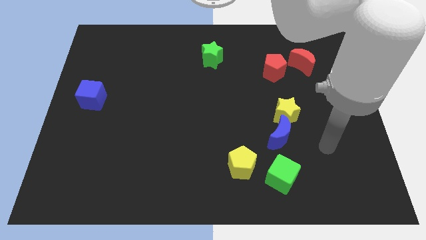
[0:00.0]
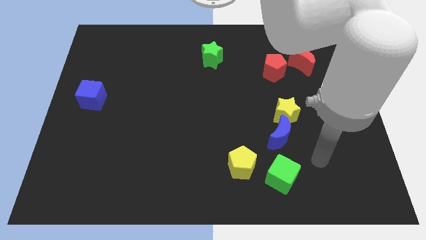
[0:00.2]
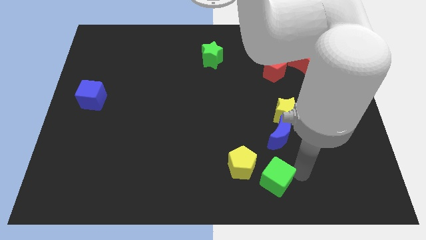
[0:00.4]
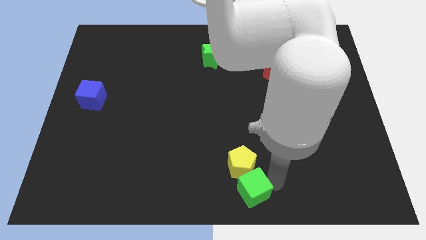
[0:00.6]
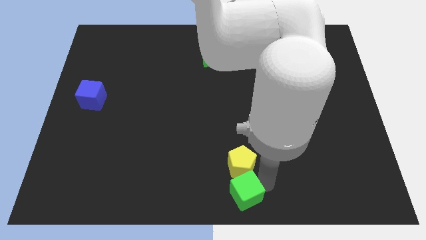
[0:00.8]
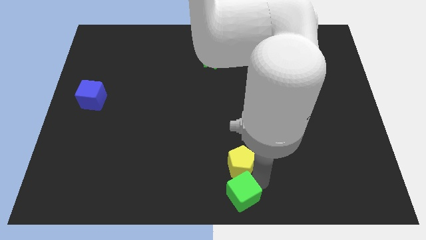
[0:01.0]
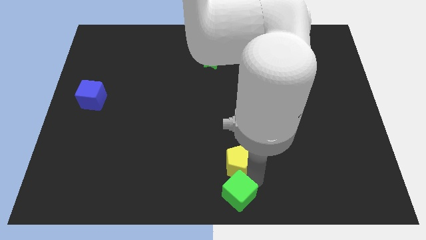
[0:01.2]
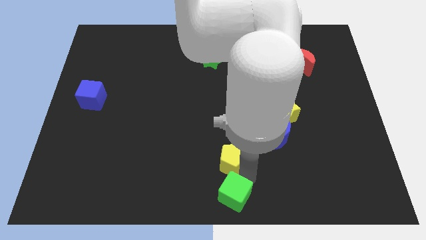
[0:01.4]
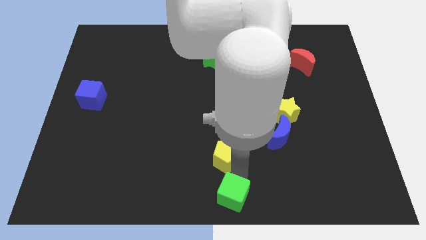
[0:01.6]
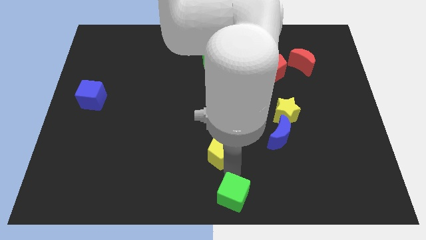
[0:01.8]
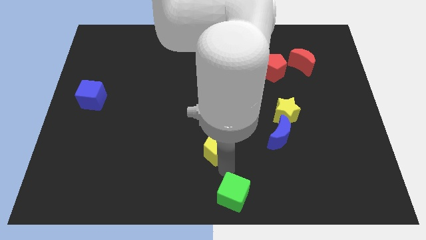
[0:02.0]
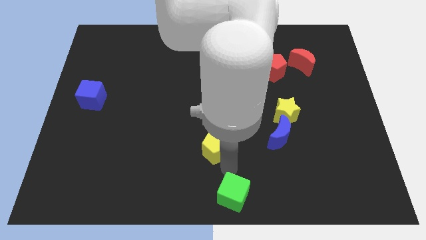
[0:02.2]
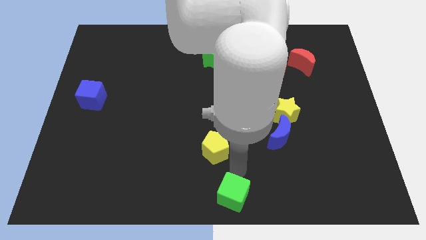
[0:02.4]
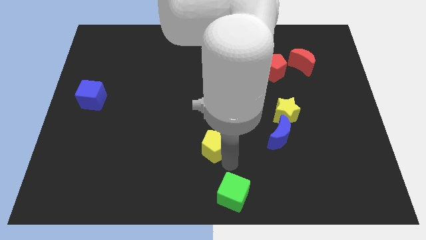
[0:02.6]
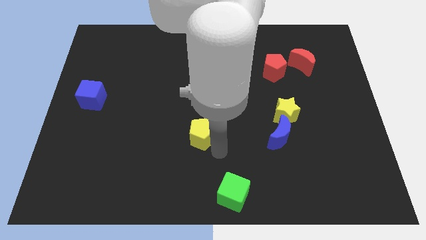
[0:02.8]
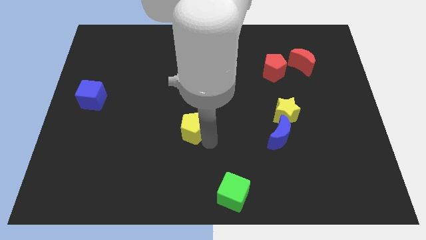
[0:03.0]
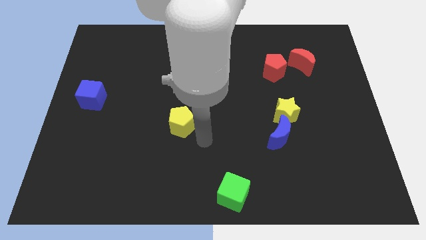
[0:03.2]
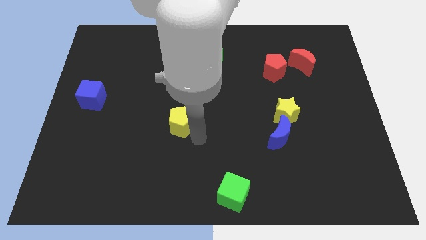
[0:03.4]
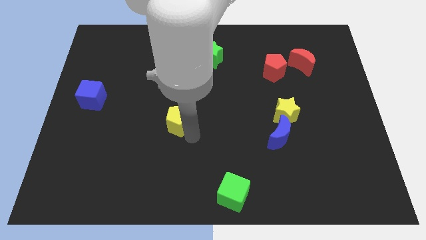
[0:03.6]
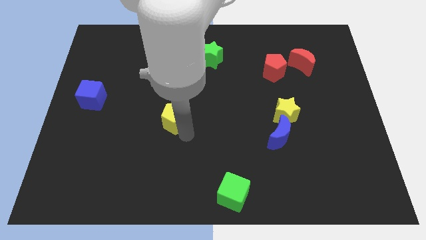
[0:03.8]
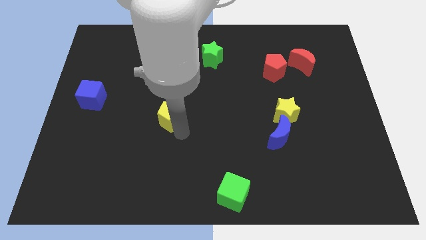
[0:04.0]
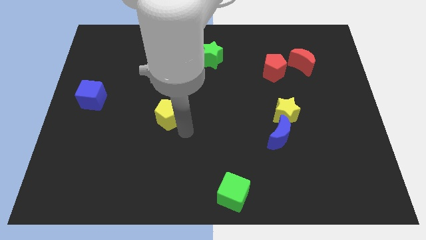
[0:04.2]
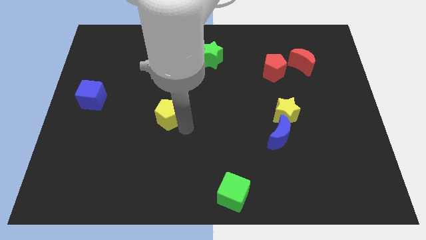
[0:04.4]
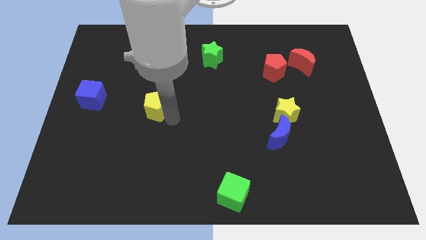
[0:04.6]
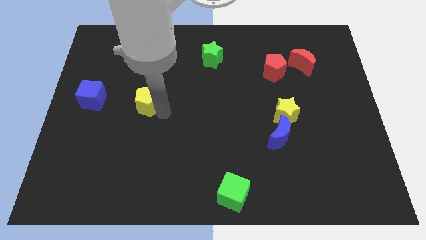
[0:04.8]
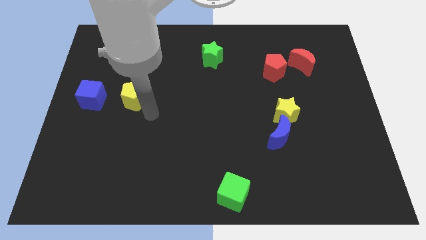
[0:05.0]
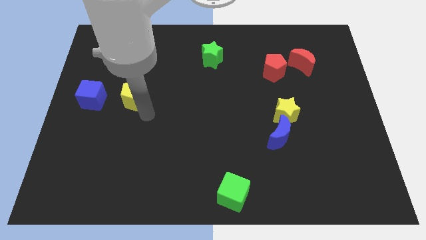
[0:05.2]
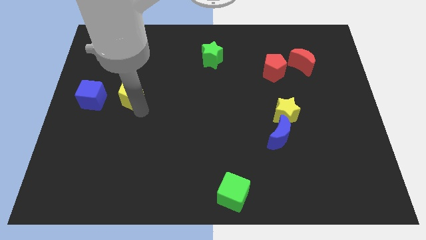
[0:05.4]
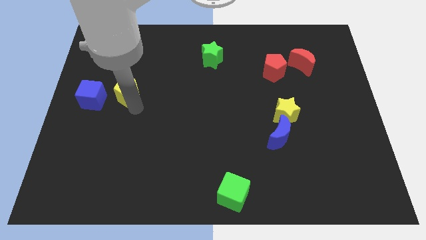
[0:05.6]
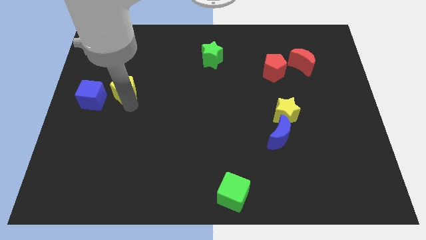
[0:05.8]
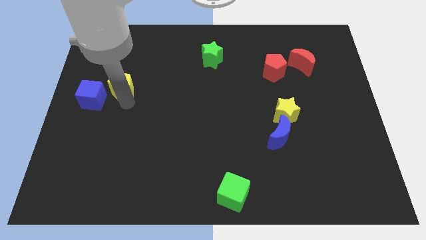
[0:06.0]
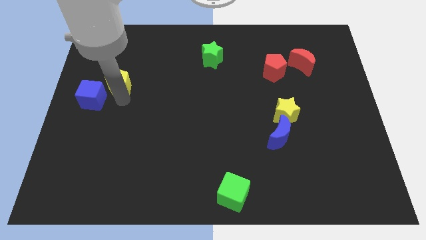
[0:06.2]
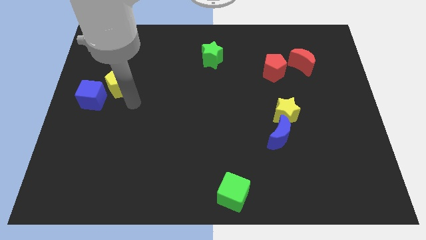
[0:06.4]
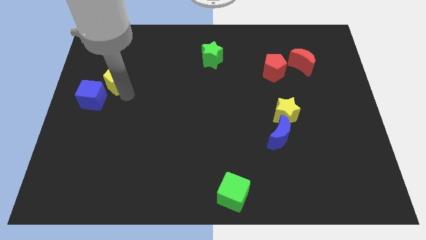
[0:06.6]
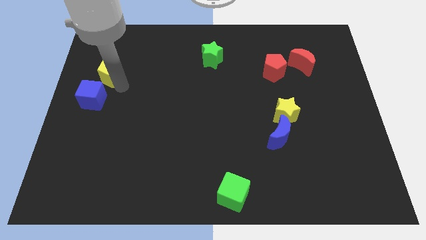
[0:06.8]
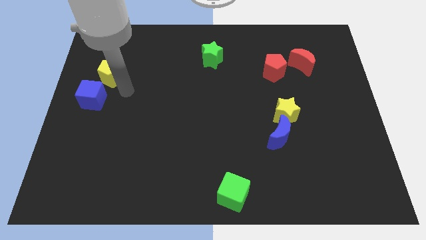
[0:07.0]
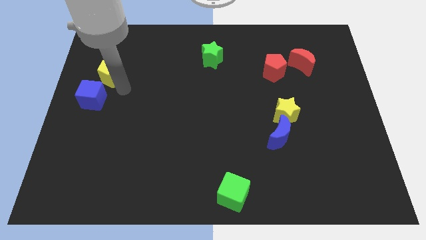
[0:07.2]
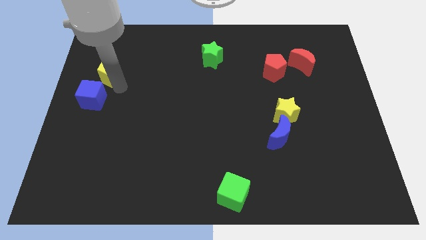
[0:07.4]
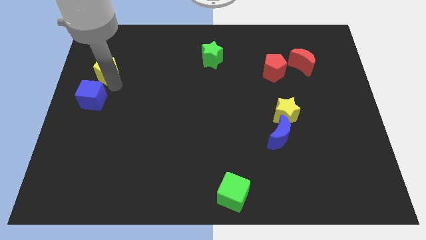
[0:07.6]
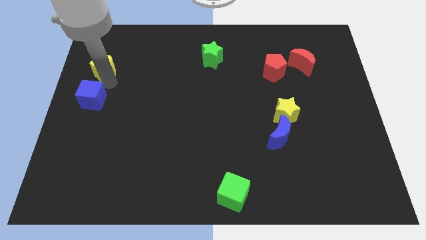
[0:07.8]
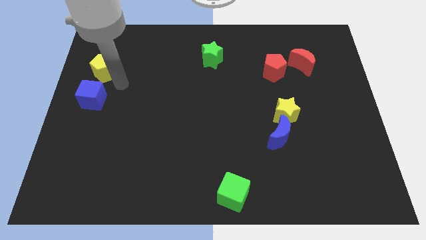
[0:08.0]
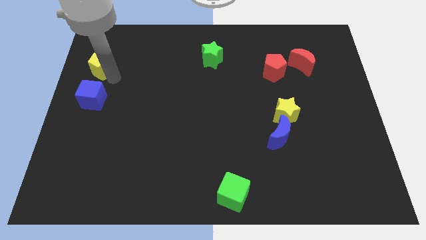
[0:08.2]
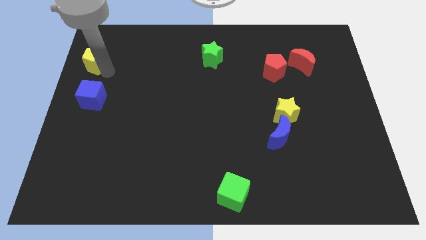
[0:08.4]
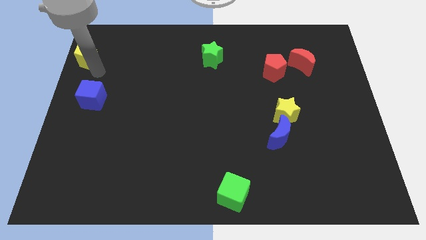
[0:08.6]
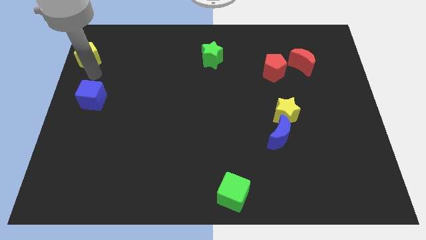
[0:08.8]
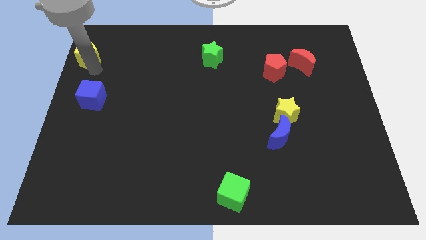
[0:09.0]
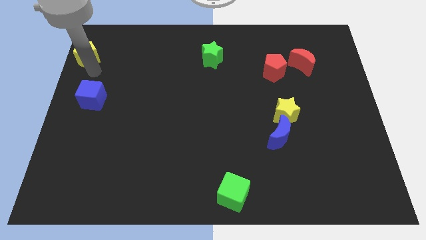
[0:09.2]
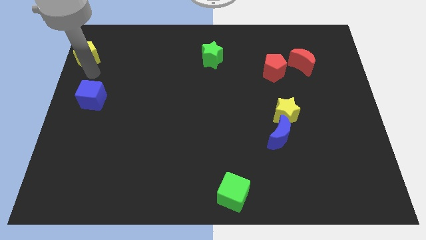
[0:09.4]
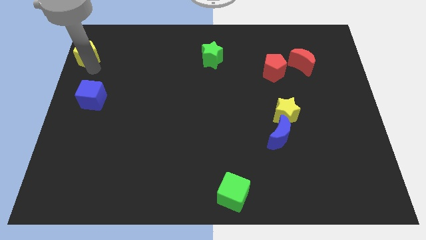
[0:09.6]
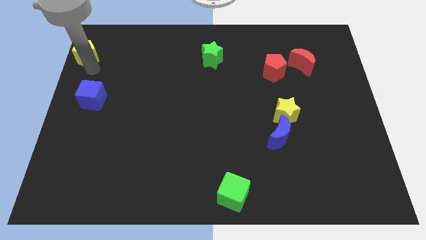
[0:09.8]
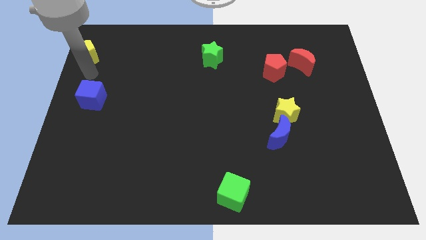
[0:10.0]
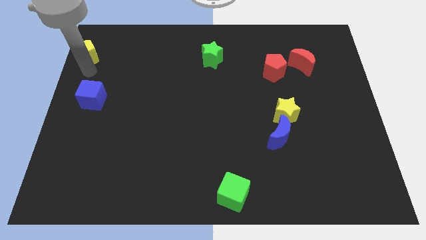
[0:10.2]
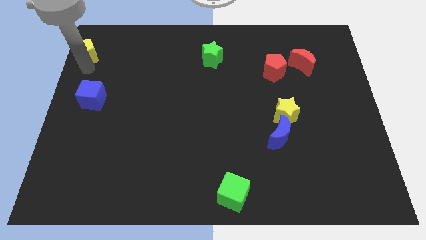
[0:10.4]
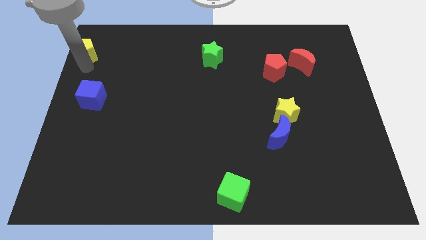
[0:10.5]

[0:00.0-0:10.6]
push the yellow pentagon to the top left corner

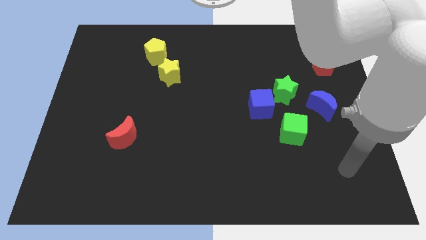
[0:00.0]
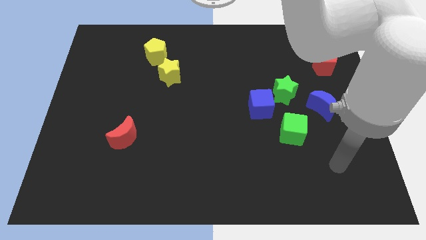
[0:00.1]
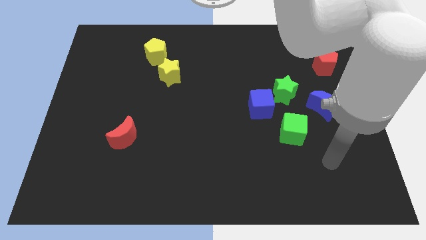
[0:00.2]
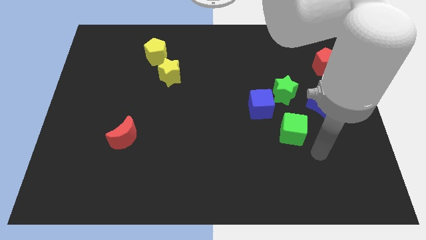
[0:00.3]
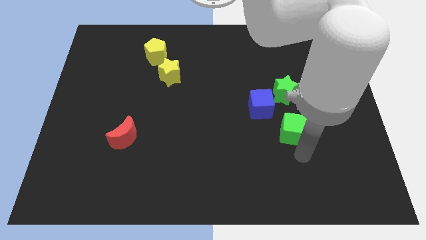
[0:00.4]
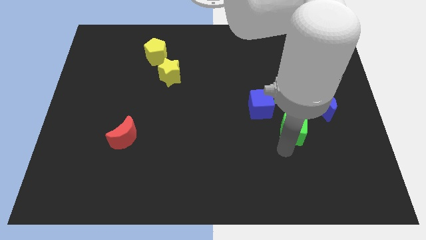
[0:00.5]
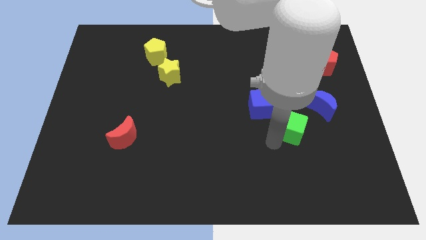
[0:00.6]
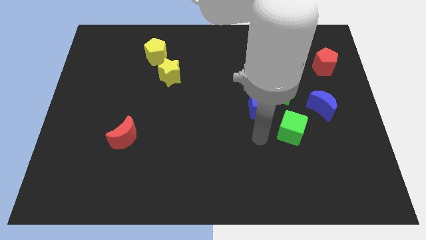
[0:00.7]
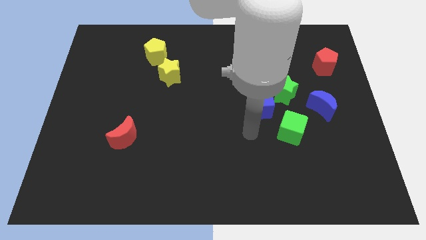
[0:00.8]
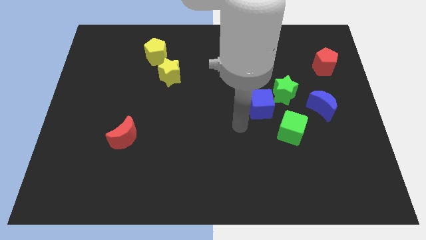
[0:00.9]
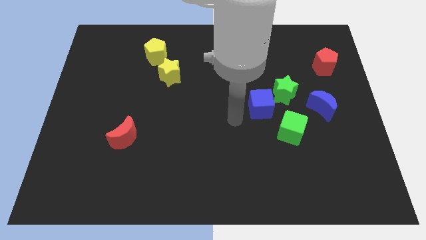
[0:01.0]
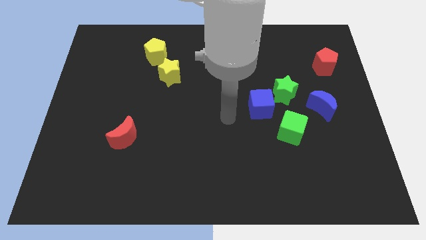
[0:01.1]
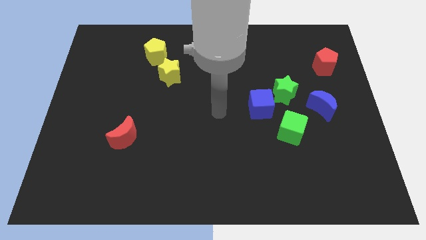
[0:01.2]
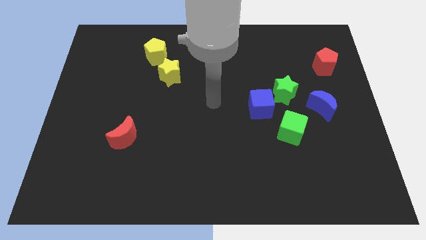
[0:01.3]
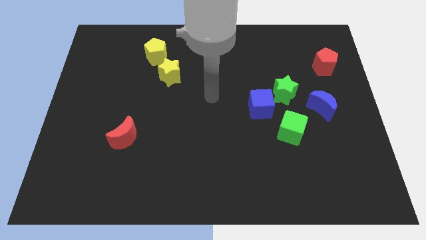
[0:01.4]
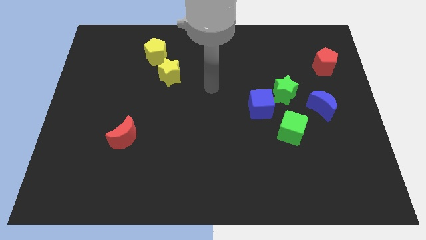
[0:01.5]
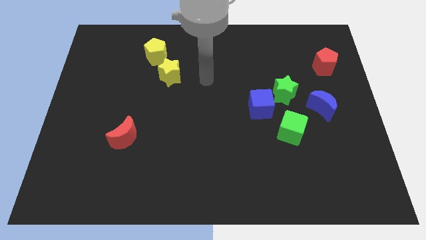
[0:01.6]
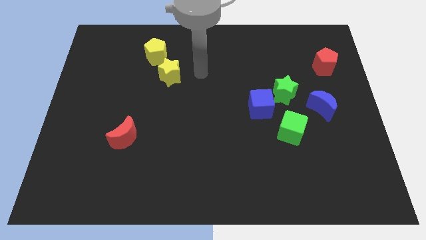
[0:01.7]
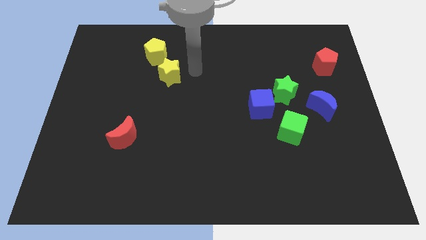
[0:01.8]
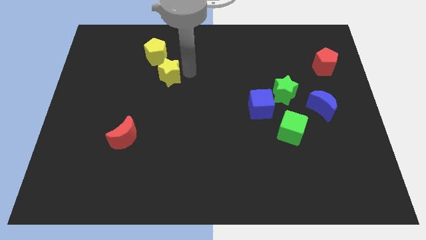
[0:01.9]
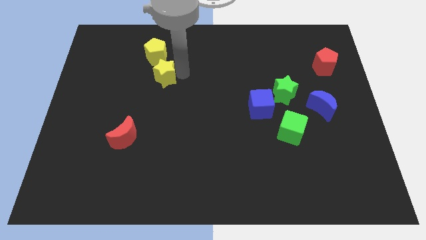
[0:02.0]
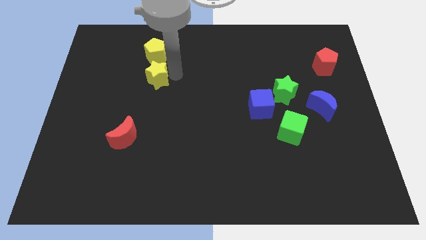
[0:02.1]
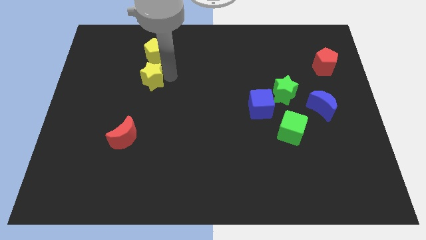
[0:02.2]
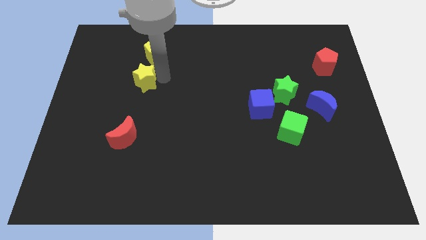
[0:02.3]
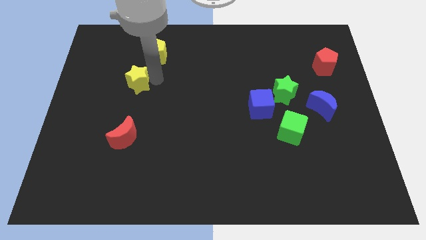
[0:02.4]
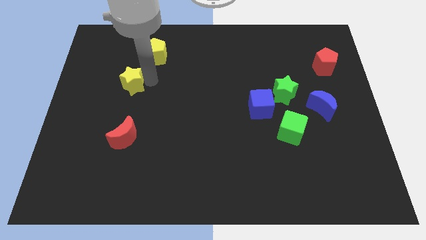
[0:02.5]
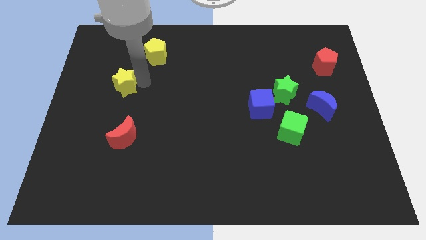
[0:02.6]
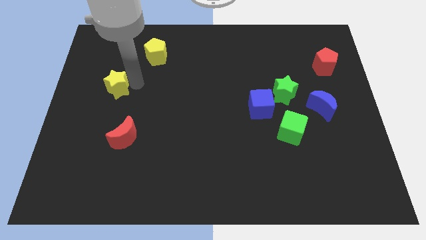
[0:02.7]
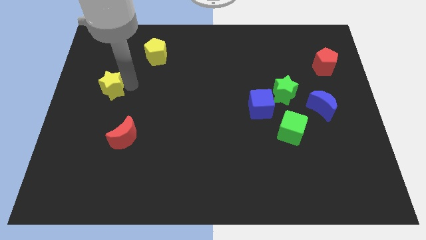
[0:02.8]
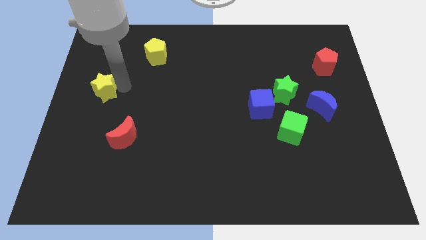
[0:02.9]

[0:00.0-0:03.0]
put the yellow star to the left side
